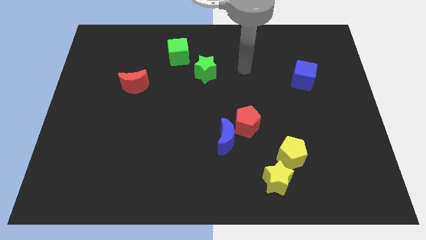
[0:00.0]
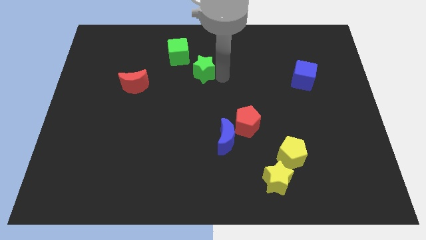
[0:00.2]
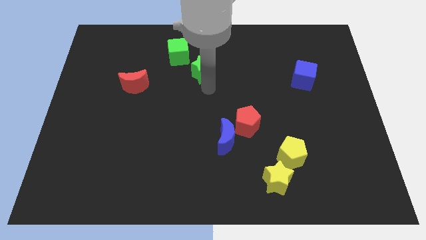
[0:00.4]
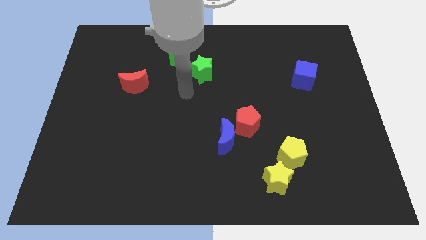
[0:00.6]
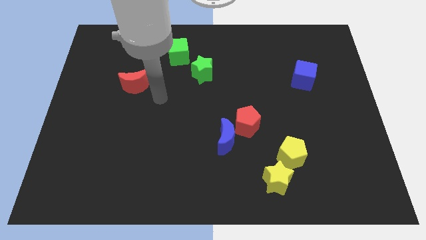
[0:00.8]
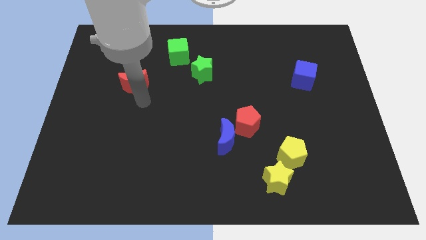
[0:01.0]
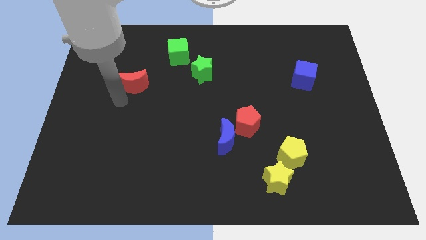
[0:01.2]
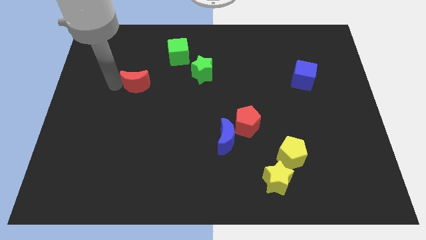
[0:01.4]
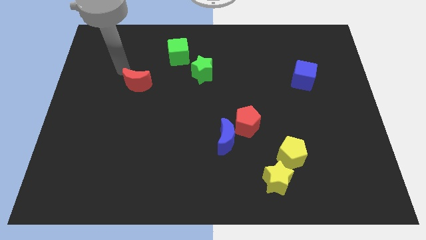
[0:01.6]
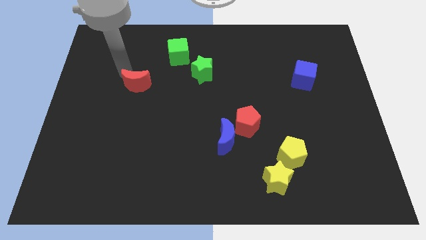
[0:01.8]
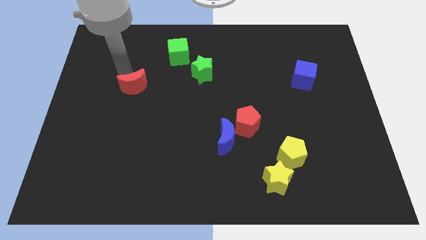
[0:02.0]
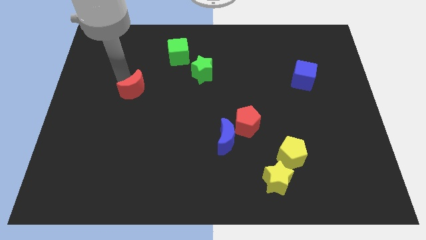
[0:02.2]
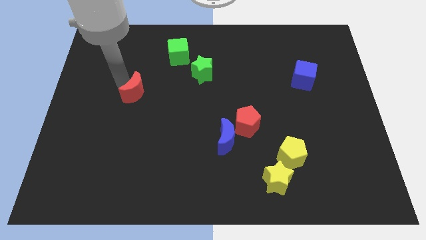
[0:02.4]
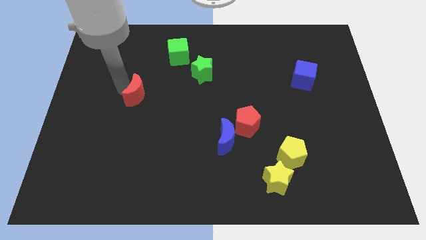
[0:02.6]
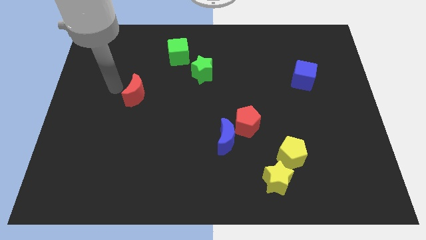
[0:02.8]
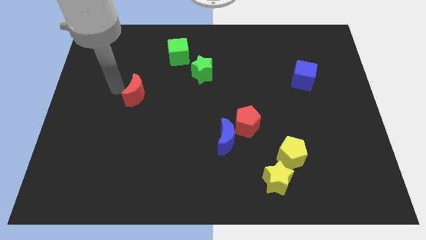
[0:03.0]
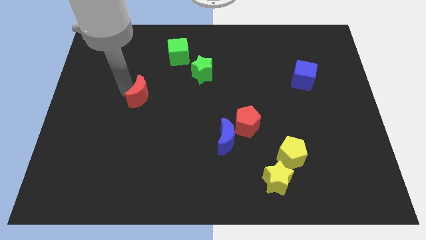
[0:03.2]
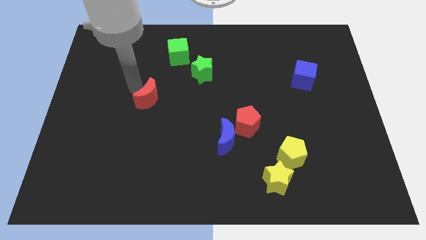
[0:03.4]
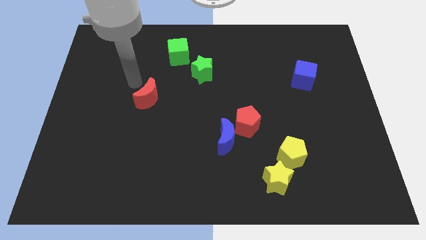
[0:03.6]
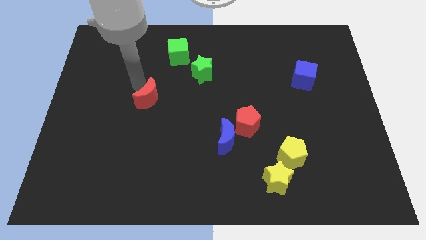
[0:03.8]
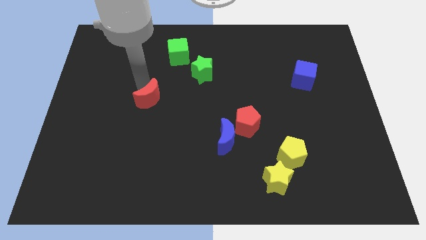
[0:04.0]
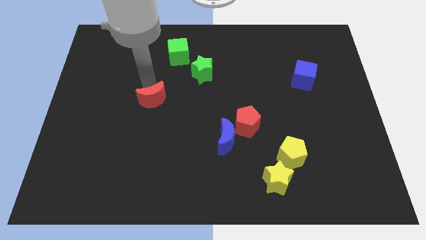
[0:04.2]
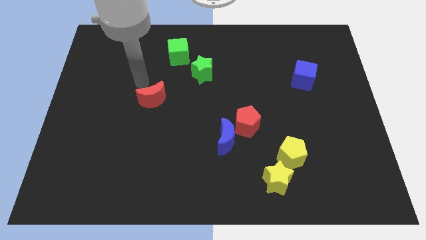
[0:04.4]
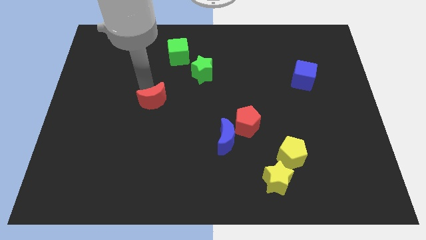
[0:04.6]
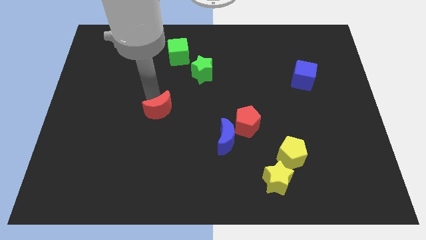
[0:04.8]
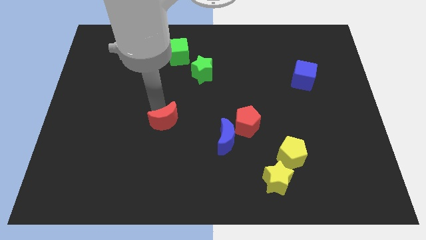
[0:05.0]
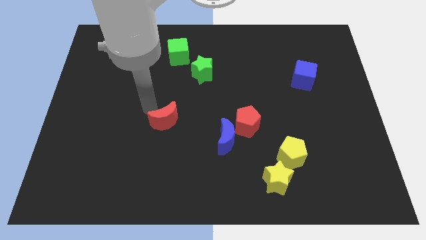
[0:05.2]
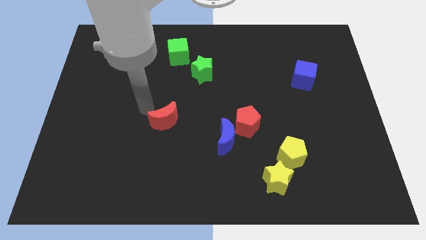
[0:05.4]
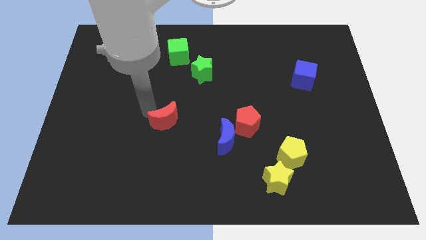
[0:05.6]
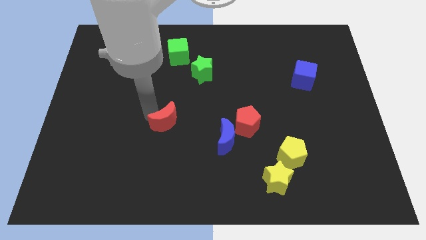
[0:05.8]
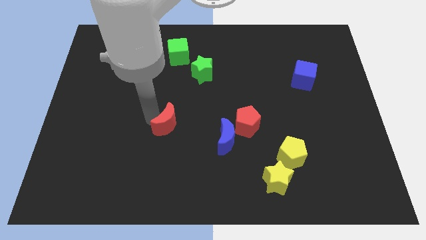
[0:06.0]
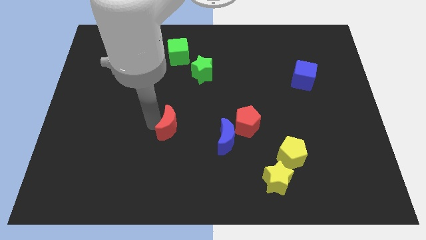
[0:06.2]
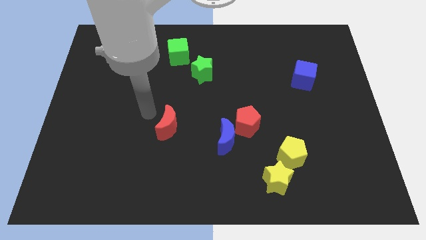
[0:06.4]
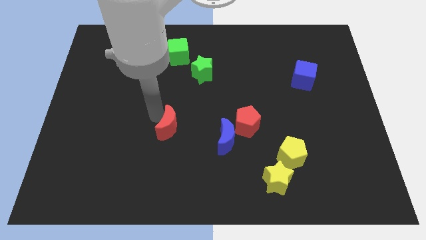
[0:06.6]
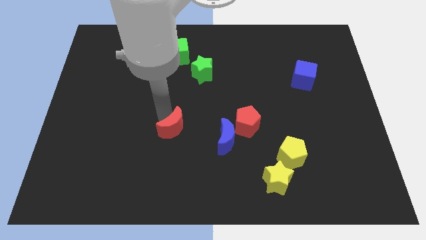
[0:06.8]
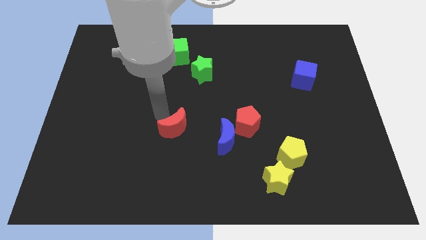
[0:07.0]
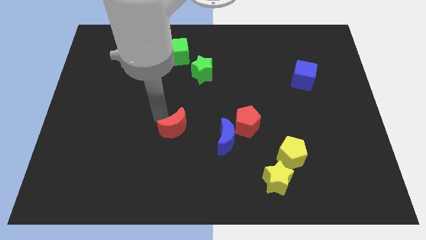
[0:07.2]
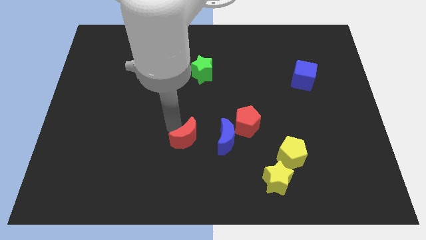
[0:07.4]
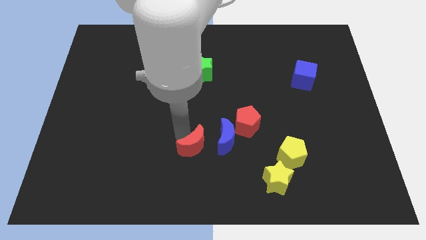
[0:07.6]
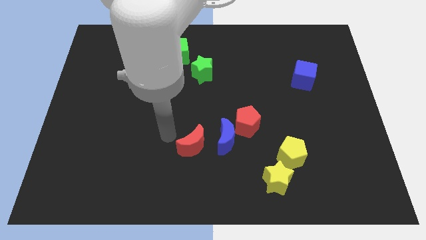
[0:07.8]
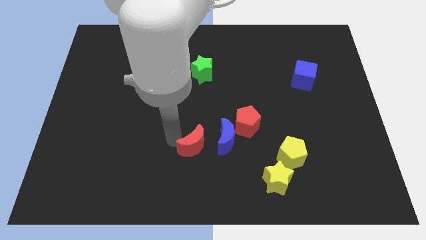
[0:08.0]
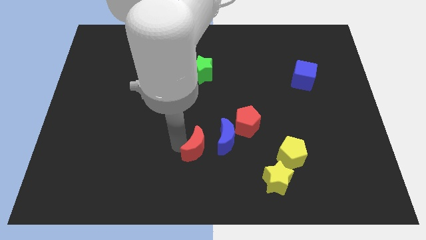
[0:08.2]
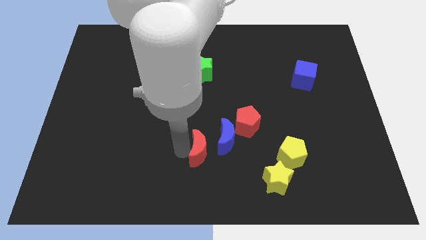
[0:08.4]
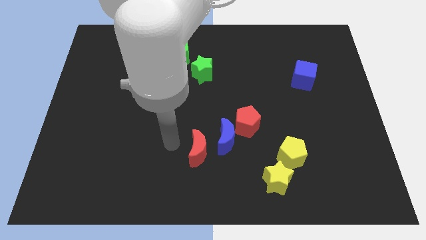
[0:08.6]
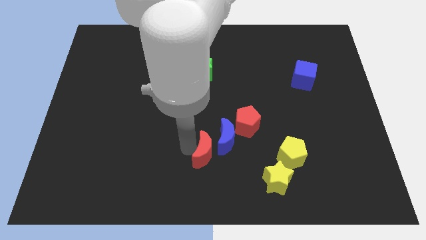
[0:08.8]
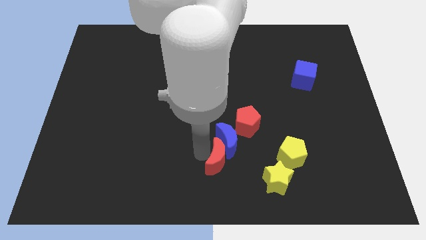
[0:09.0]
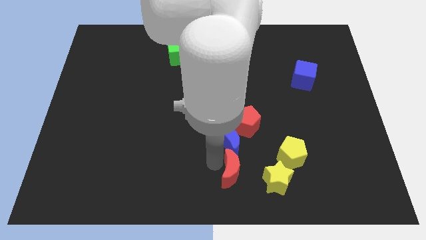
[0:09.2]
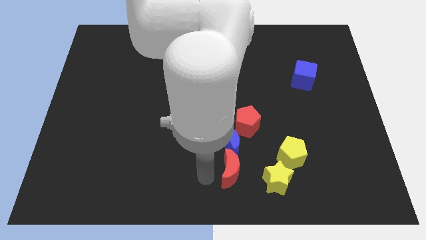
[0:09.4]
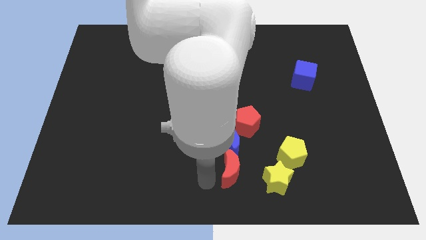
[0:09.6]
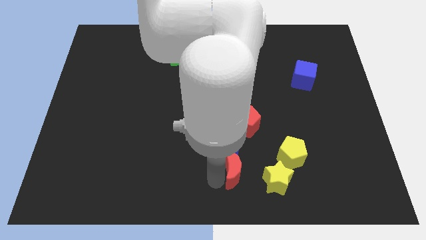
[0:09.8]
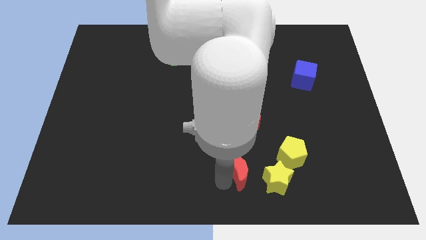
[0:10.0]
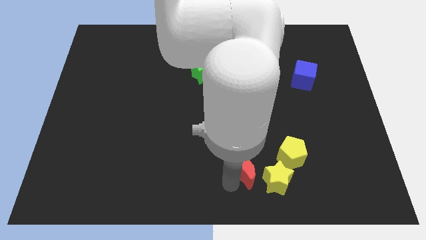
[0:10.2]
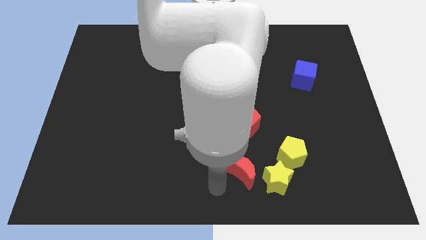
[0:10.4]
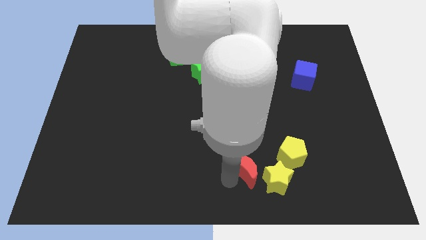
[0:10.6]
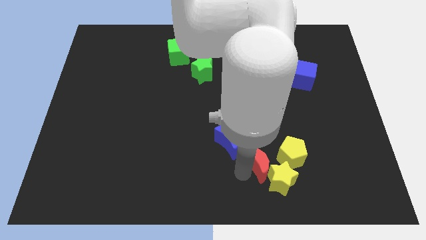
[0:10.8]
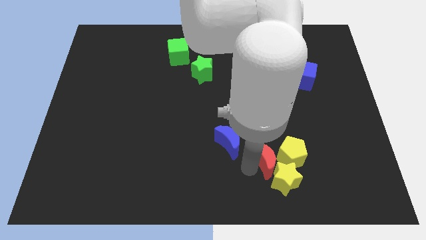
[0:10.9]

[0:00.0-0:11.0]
put the red moon to the yellow pentagon

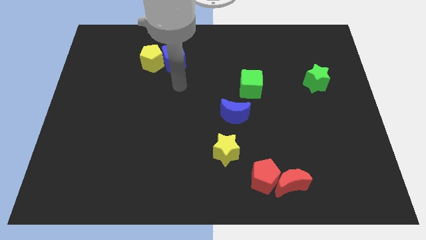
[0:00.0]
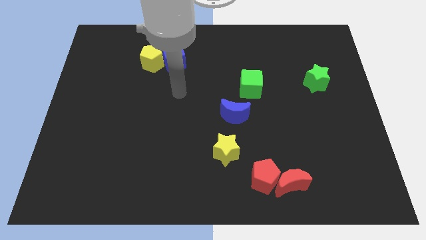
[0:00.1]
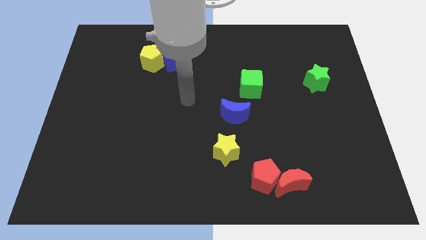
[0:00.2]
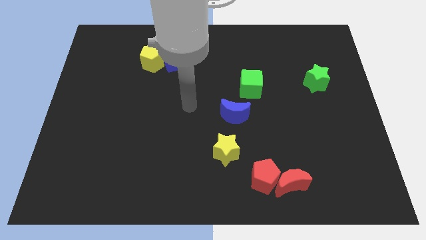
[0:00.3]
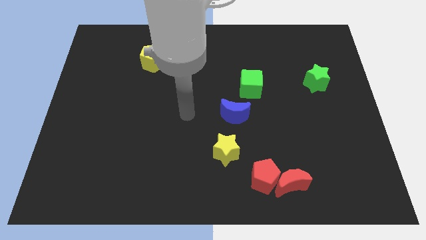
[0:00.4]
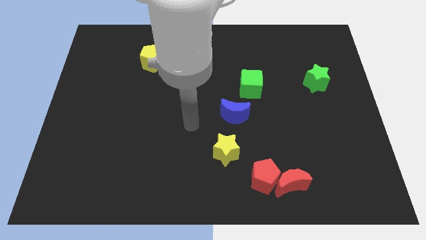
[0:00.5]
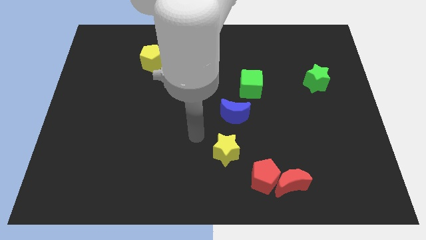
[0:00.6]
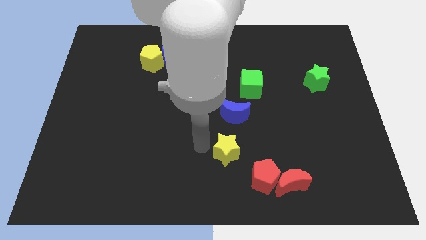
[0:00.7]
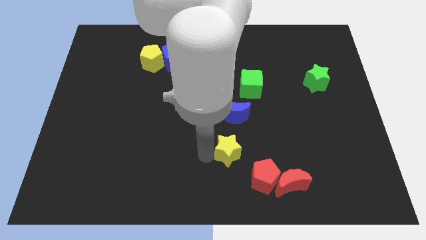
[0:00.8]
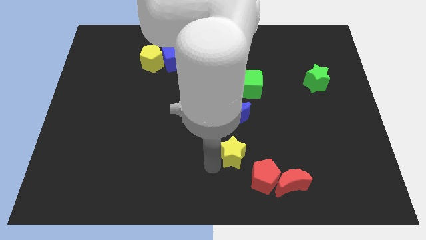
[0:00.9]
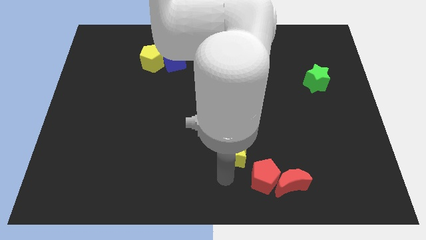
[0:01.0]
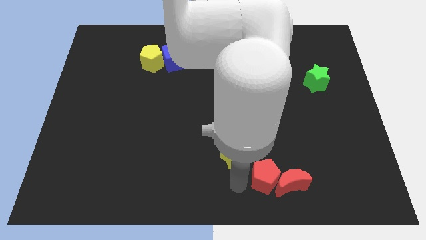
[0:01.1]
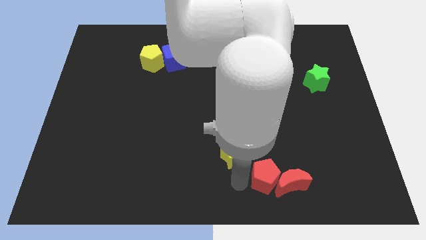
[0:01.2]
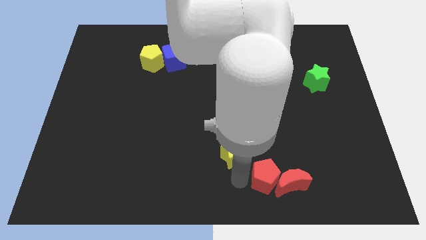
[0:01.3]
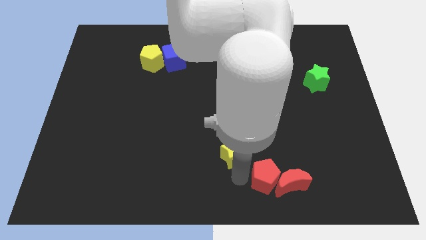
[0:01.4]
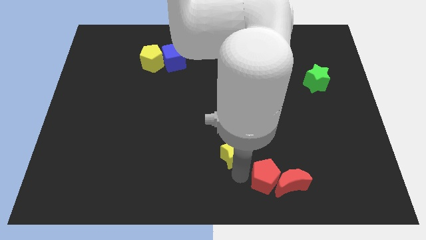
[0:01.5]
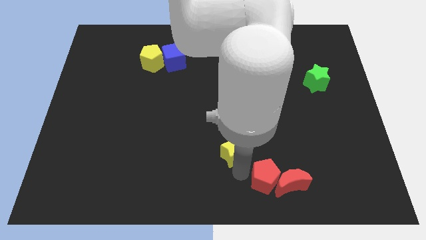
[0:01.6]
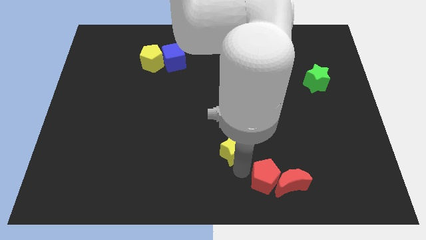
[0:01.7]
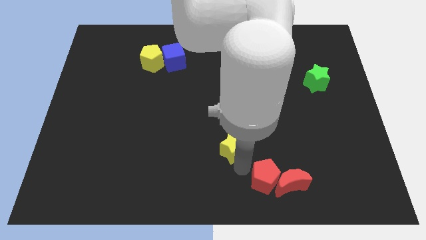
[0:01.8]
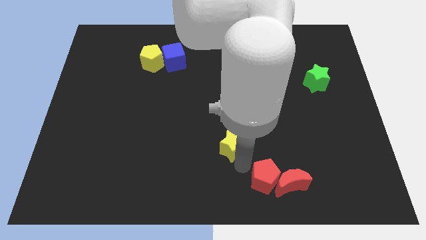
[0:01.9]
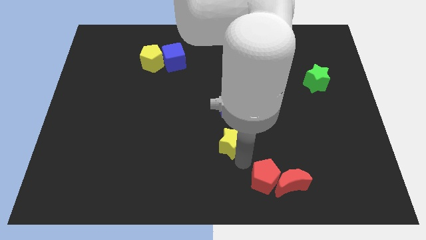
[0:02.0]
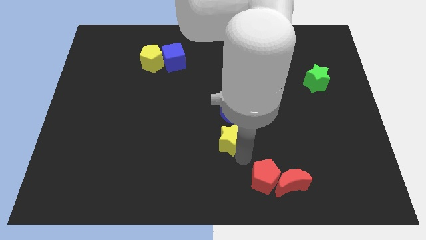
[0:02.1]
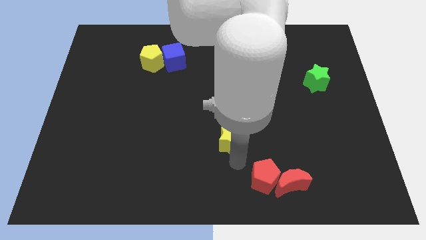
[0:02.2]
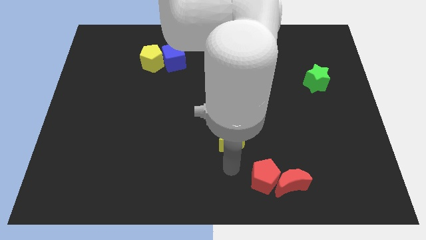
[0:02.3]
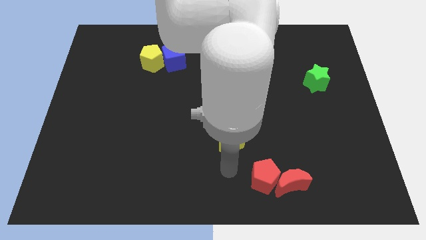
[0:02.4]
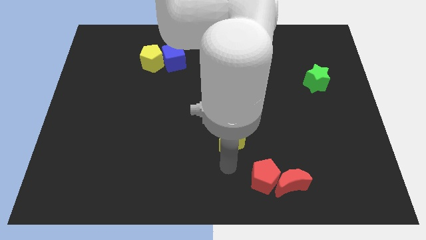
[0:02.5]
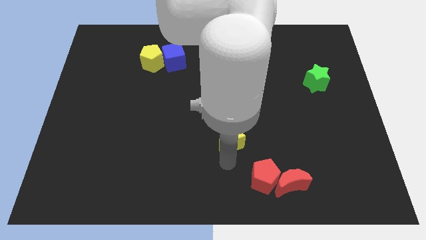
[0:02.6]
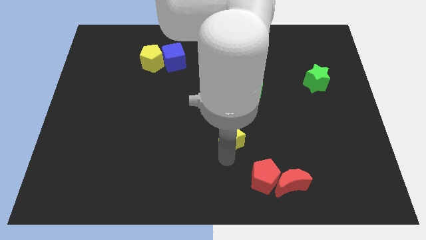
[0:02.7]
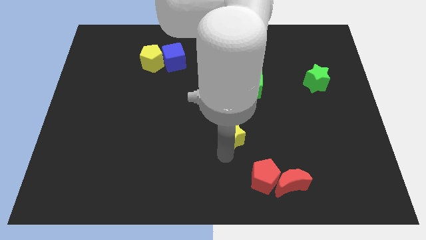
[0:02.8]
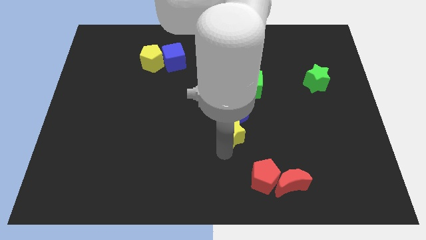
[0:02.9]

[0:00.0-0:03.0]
slide the yellow star to the blue moon
